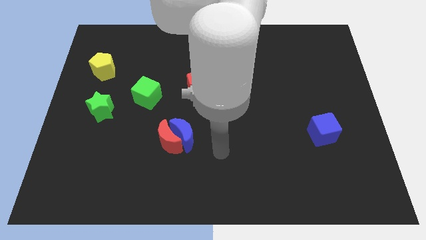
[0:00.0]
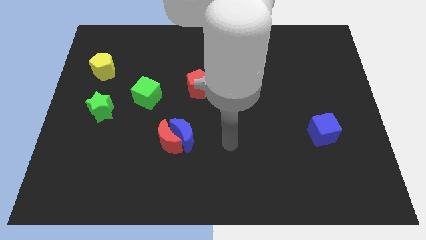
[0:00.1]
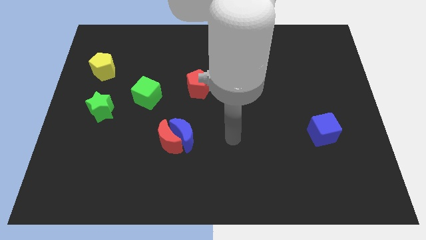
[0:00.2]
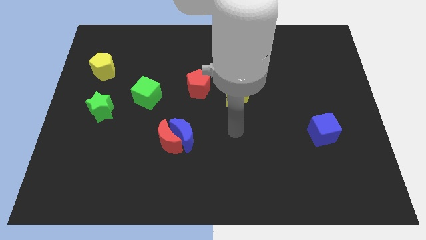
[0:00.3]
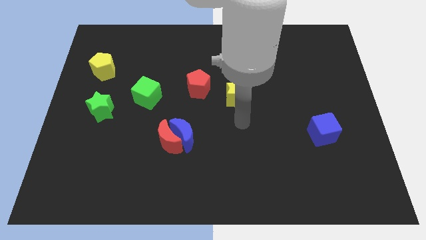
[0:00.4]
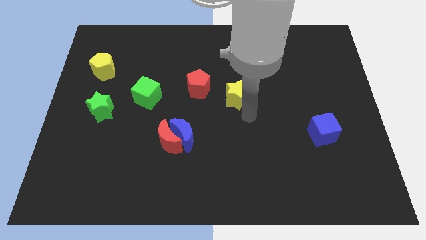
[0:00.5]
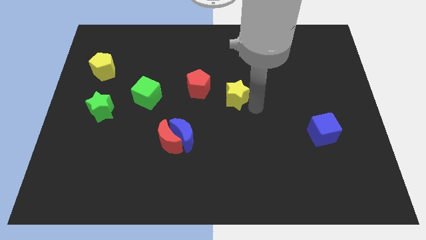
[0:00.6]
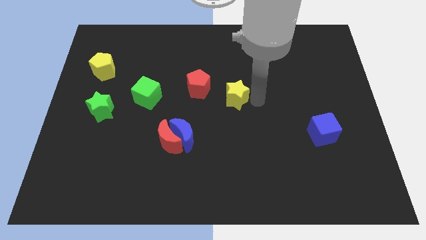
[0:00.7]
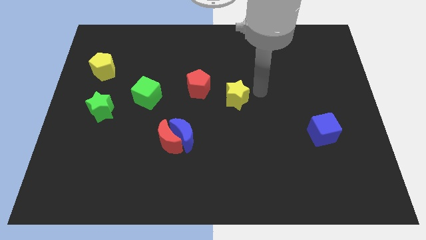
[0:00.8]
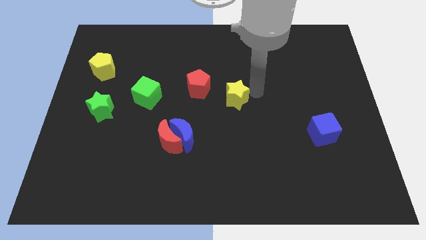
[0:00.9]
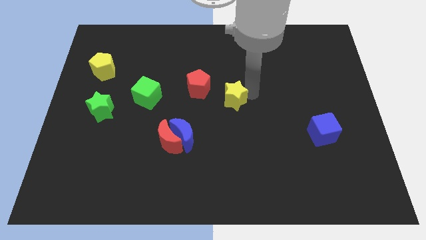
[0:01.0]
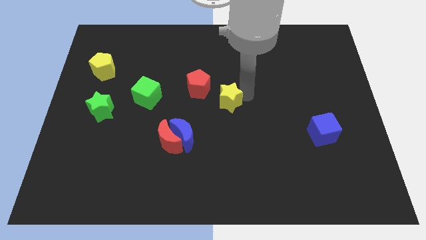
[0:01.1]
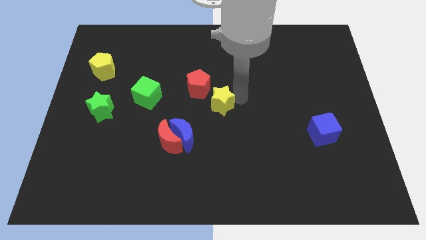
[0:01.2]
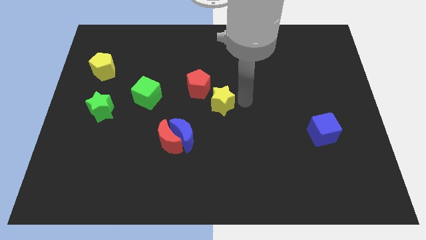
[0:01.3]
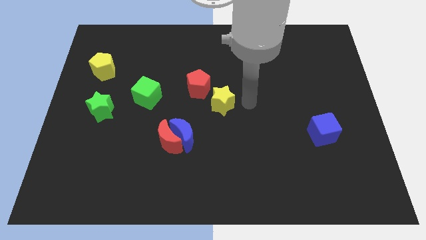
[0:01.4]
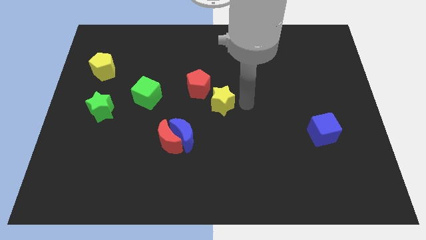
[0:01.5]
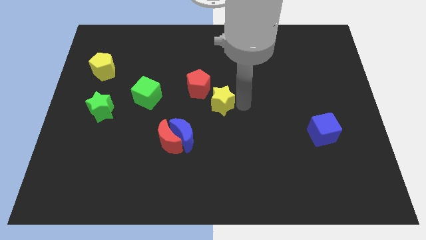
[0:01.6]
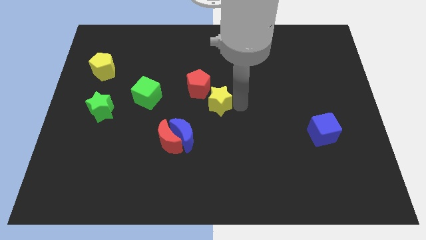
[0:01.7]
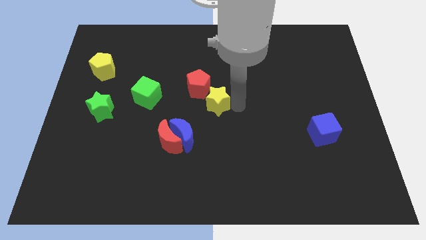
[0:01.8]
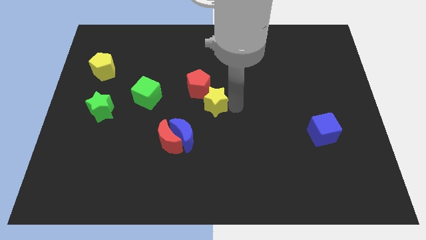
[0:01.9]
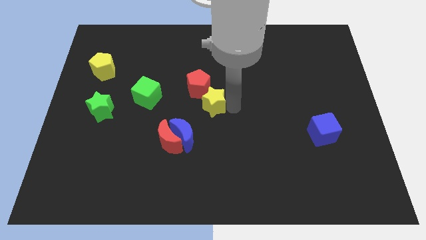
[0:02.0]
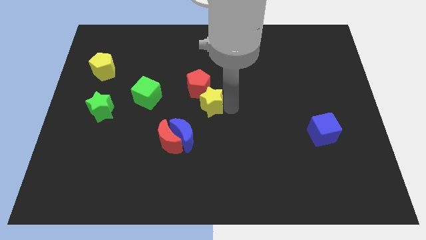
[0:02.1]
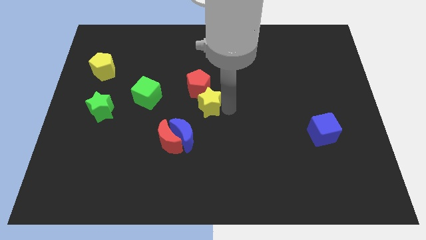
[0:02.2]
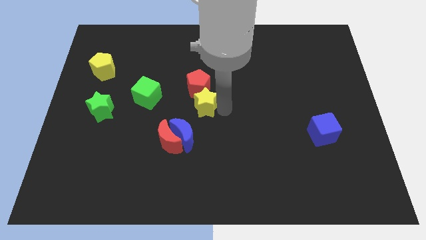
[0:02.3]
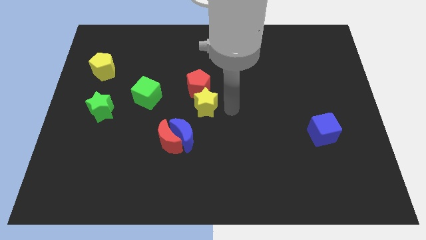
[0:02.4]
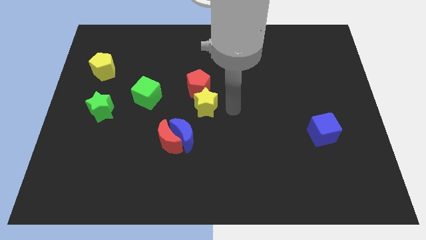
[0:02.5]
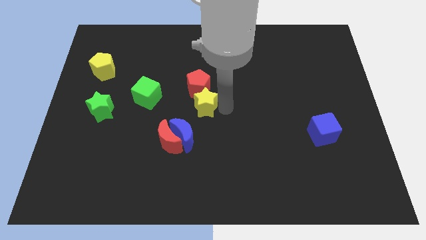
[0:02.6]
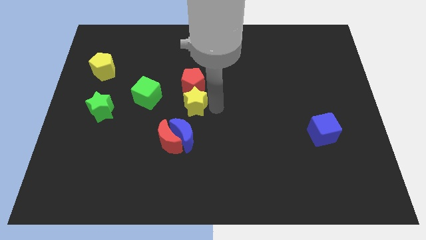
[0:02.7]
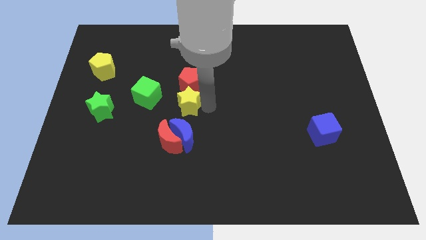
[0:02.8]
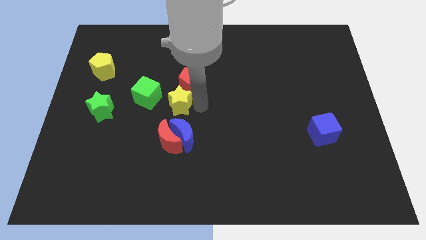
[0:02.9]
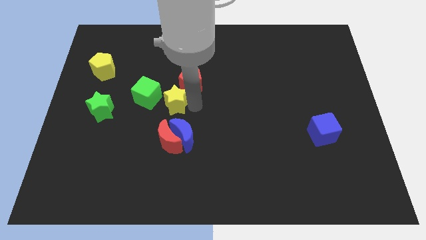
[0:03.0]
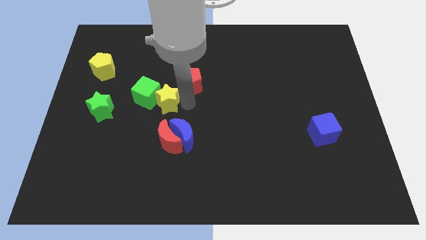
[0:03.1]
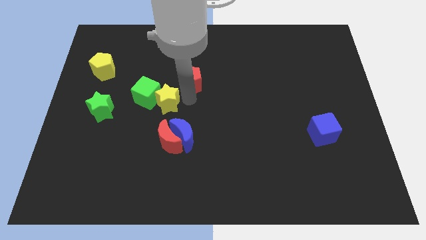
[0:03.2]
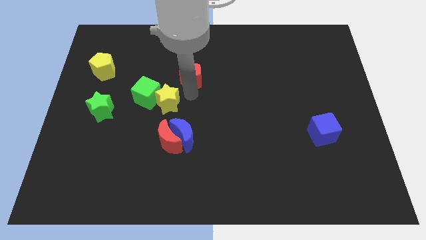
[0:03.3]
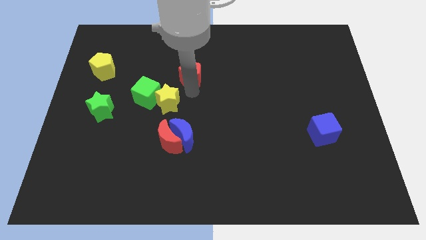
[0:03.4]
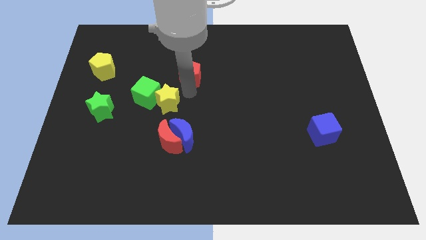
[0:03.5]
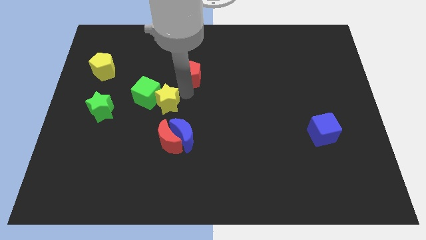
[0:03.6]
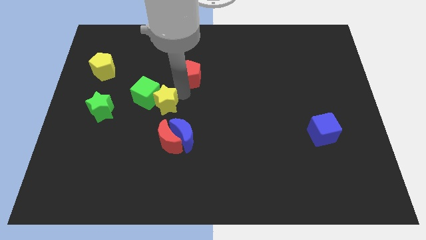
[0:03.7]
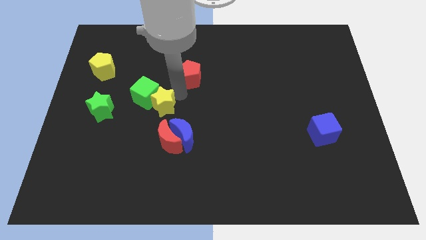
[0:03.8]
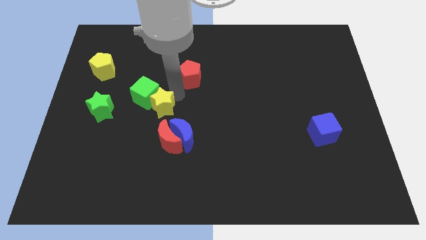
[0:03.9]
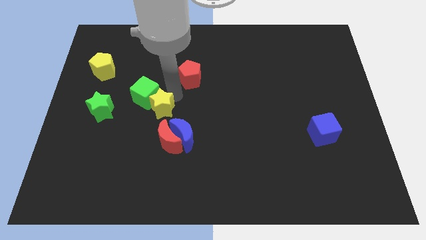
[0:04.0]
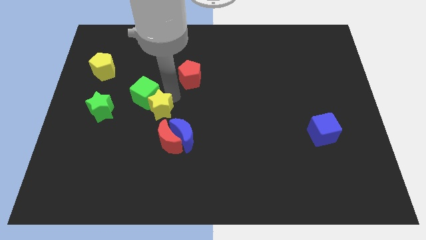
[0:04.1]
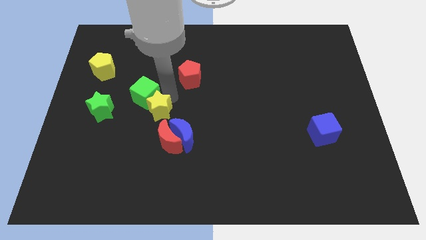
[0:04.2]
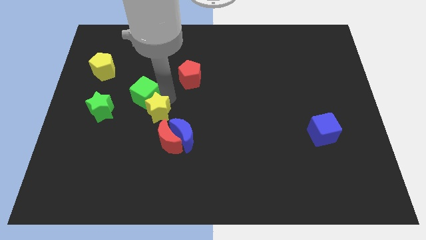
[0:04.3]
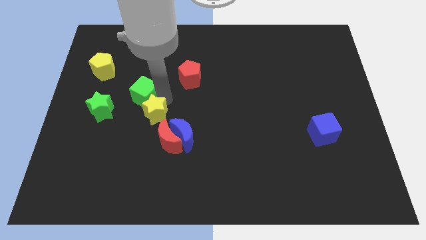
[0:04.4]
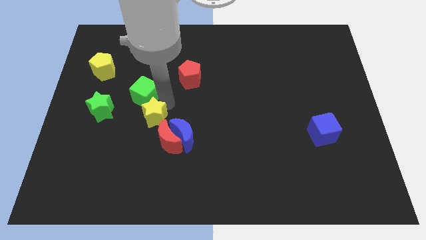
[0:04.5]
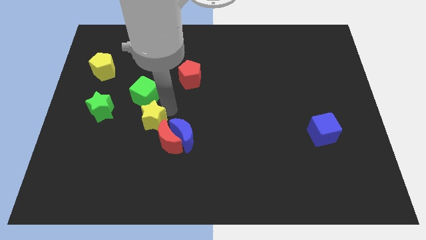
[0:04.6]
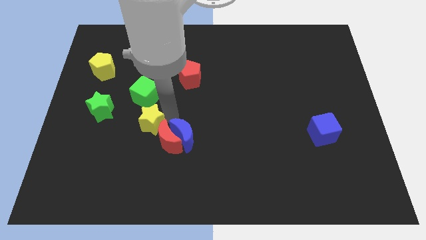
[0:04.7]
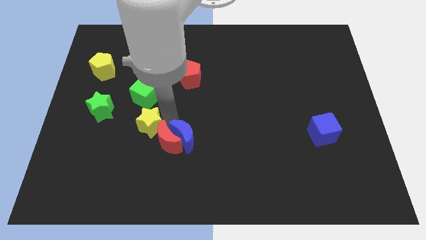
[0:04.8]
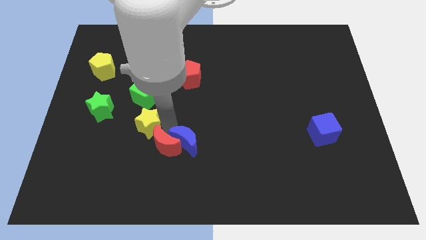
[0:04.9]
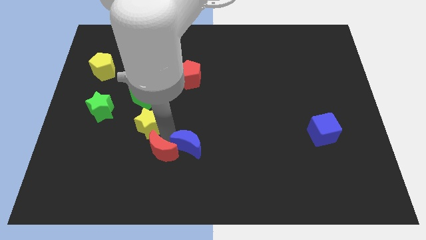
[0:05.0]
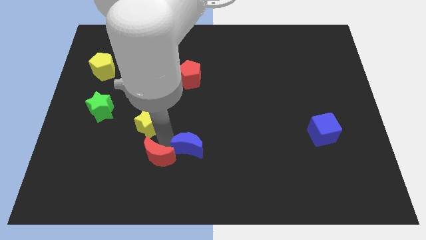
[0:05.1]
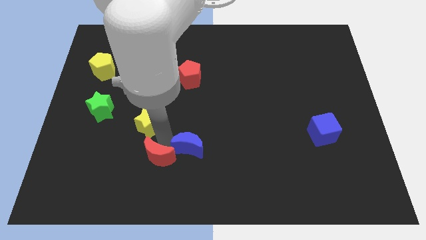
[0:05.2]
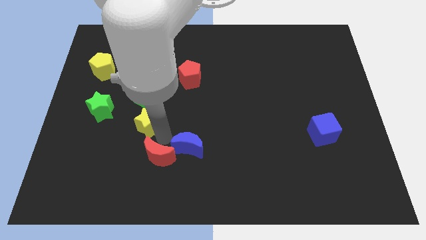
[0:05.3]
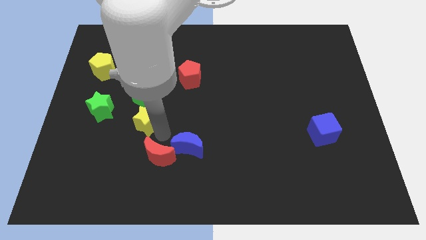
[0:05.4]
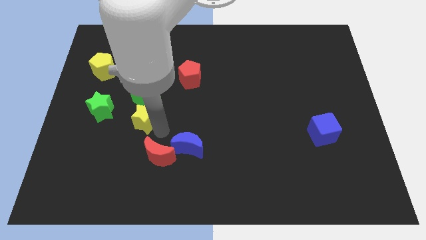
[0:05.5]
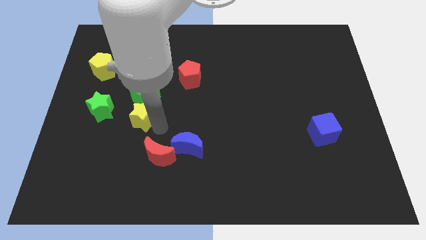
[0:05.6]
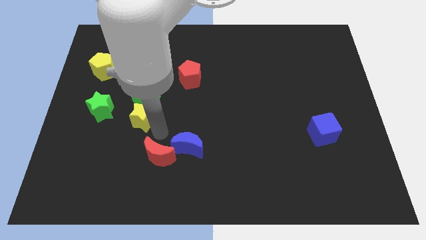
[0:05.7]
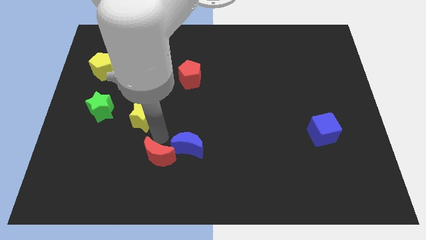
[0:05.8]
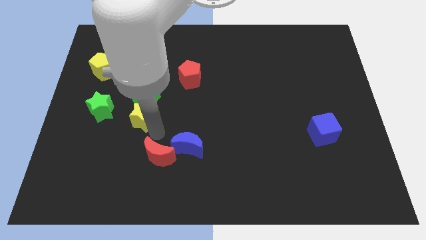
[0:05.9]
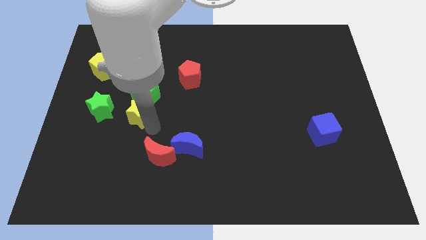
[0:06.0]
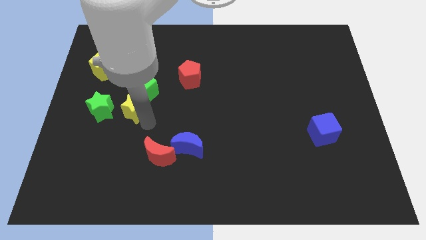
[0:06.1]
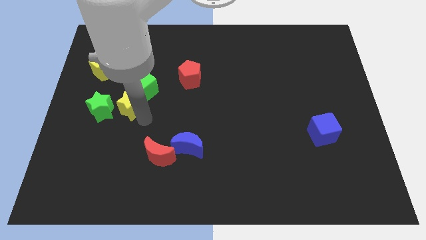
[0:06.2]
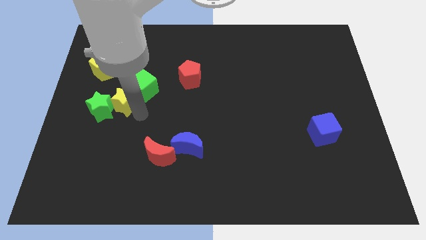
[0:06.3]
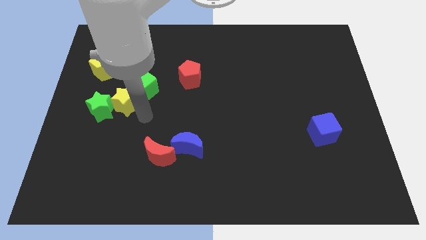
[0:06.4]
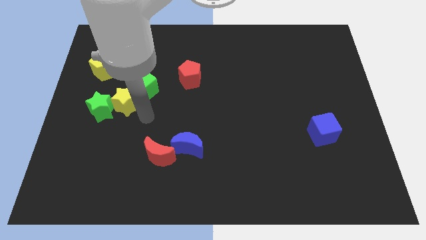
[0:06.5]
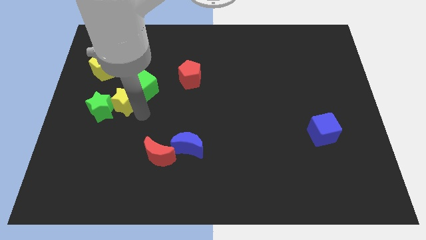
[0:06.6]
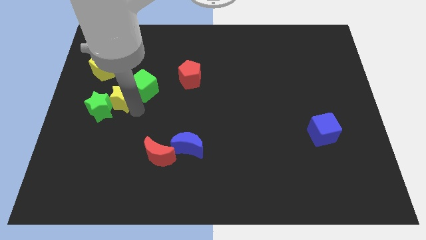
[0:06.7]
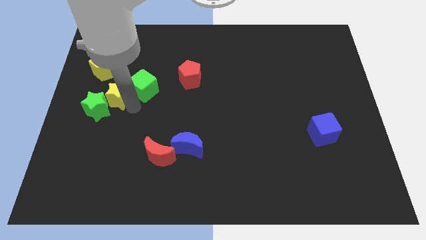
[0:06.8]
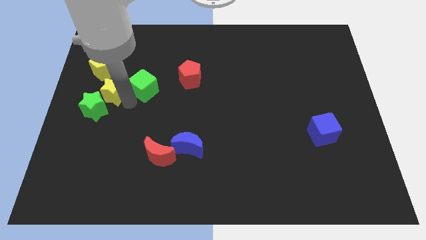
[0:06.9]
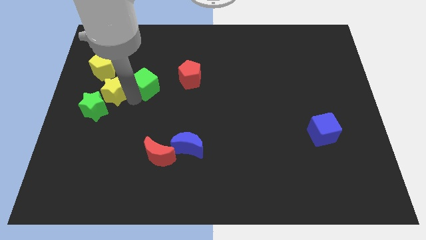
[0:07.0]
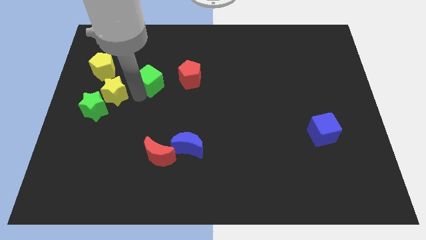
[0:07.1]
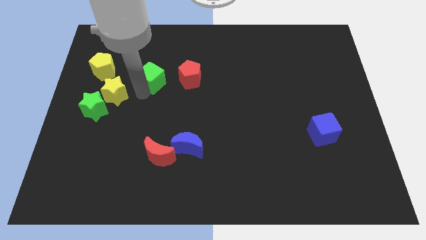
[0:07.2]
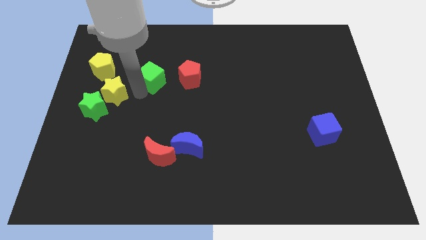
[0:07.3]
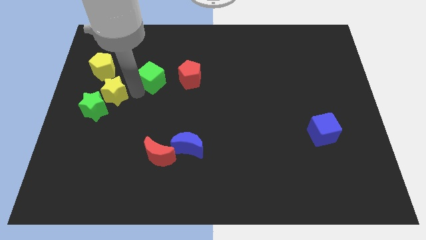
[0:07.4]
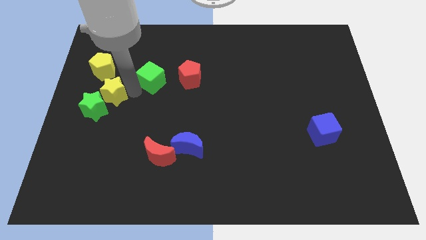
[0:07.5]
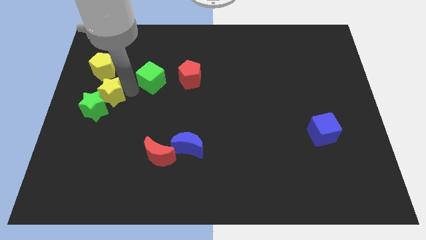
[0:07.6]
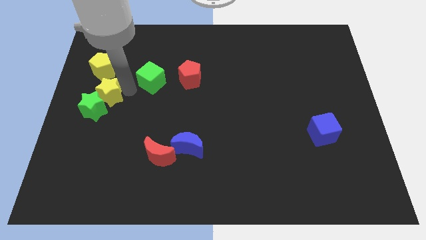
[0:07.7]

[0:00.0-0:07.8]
move the yellow star to the left side
